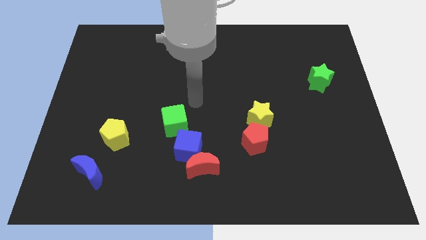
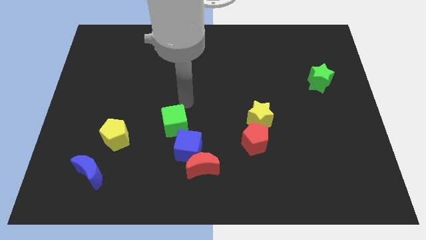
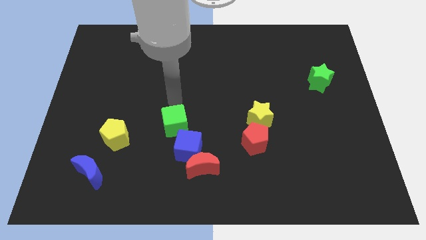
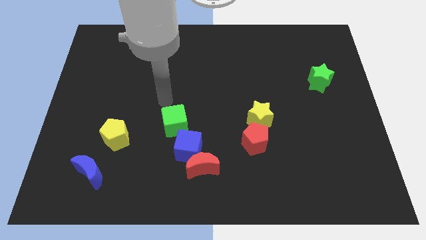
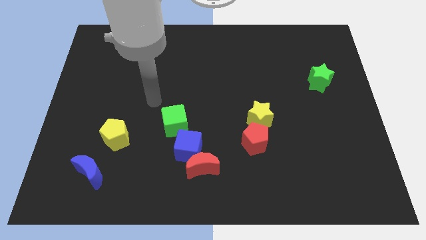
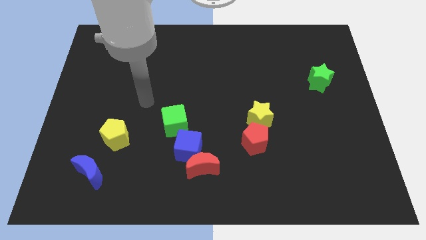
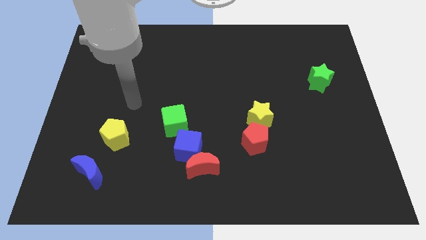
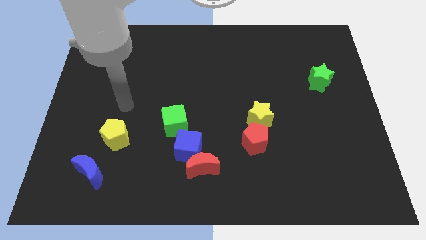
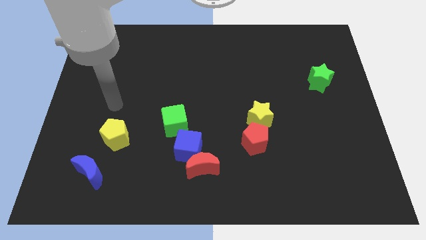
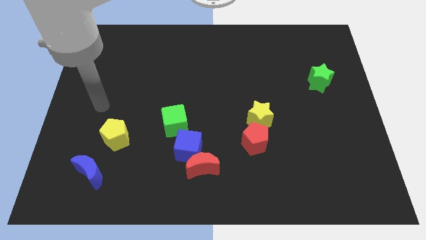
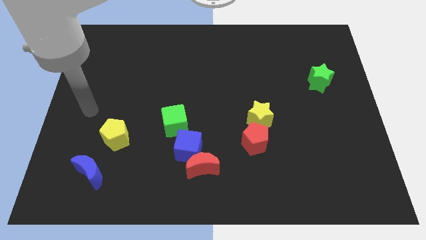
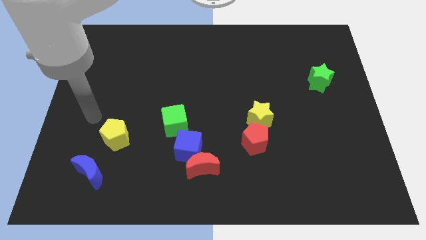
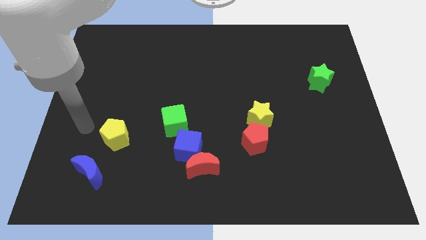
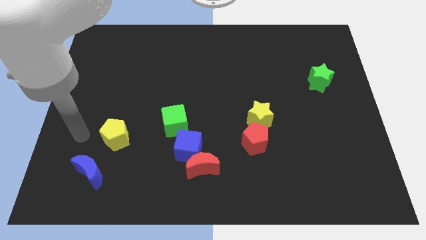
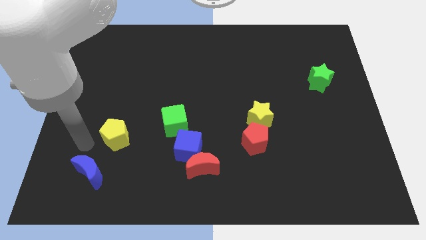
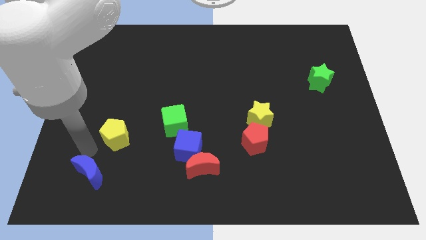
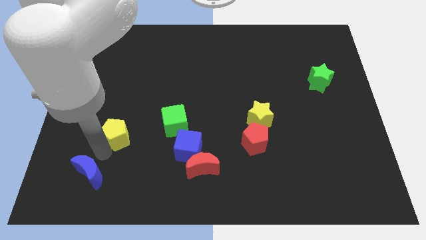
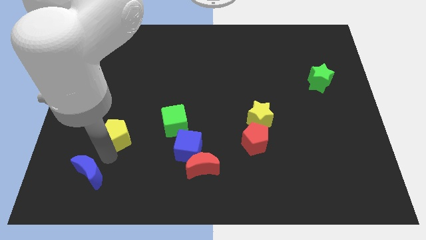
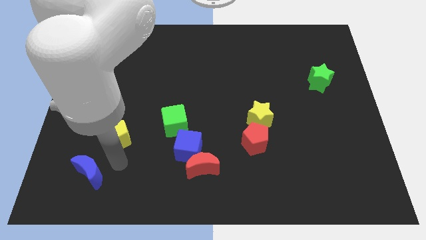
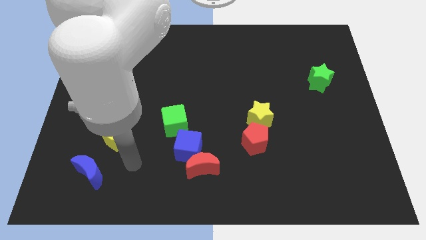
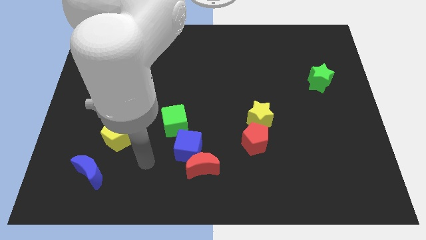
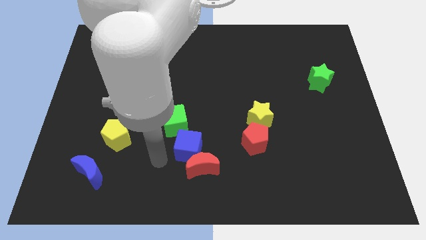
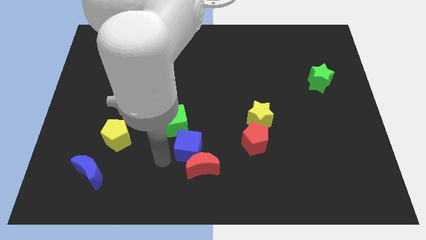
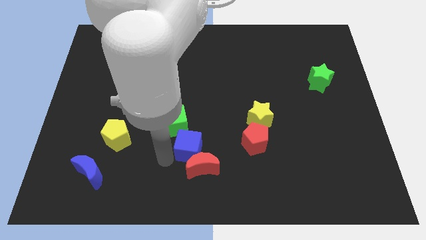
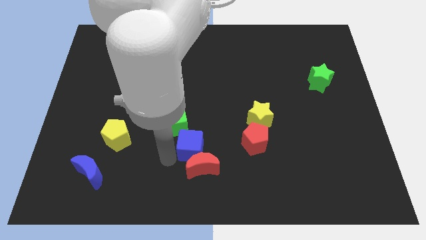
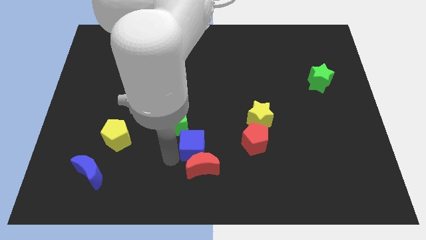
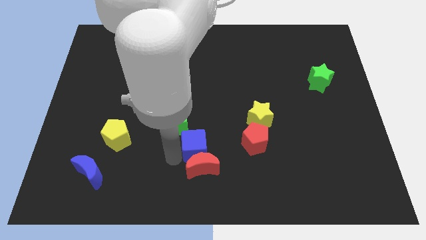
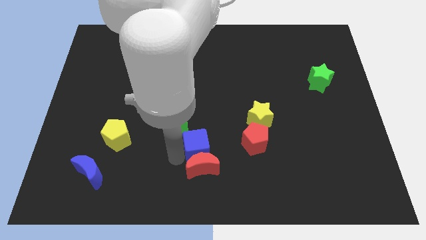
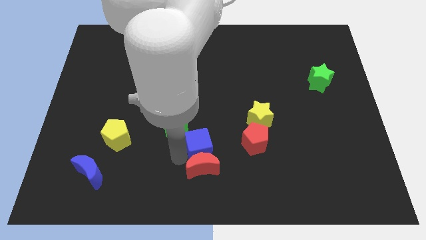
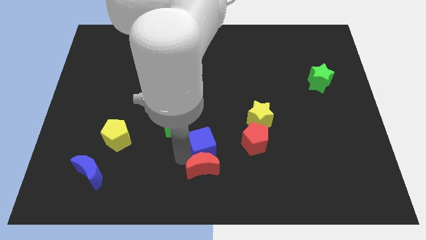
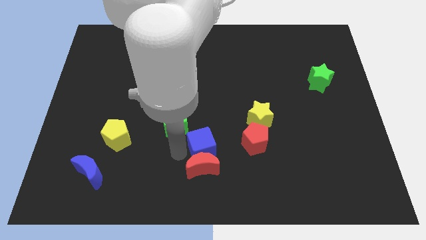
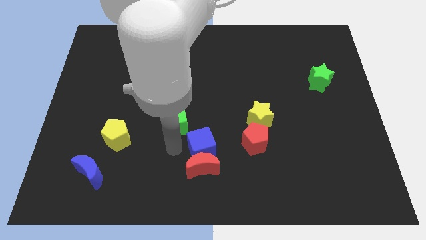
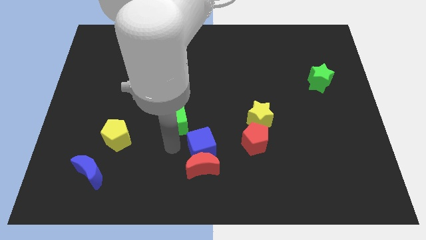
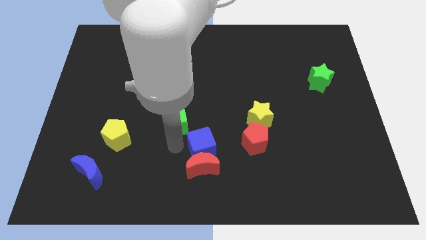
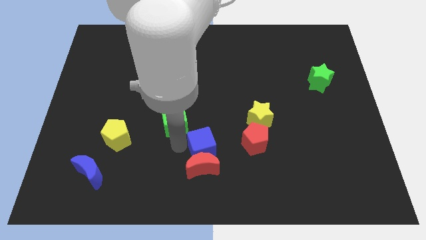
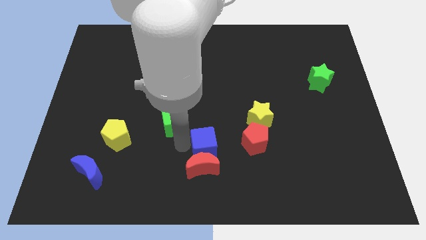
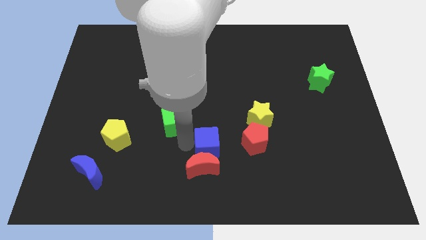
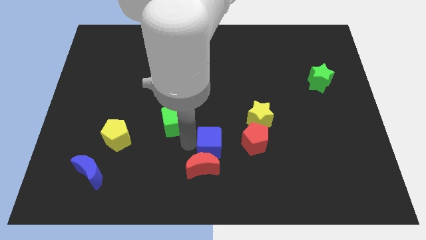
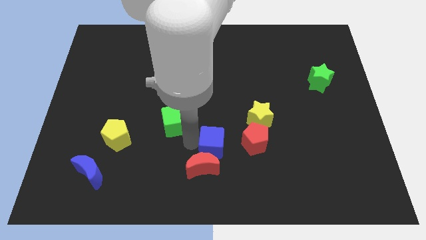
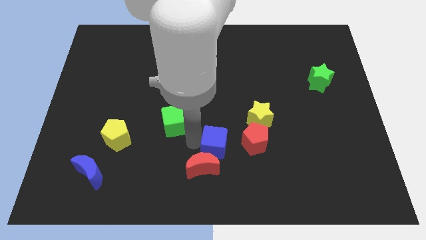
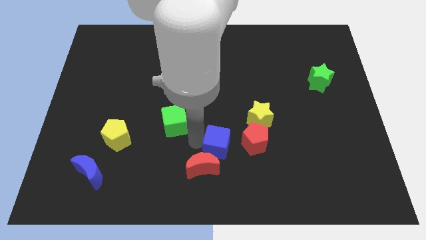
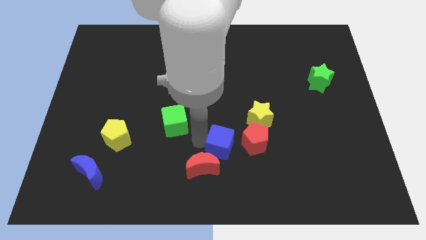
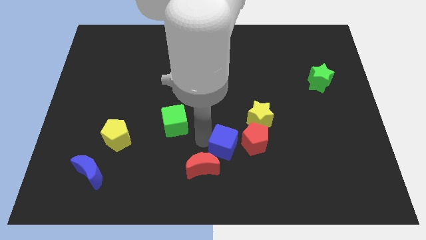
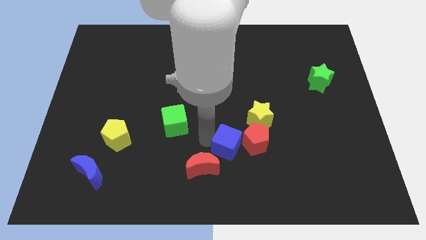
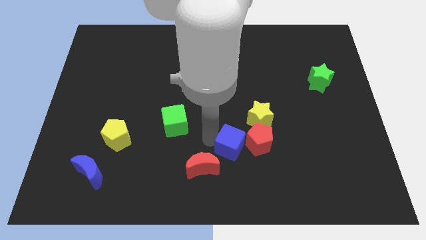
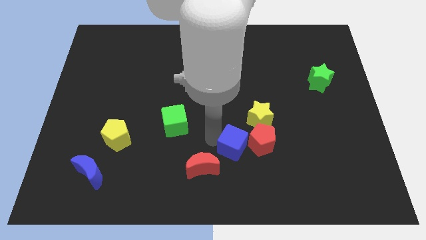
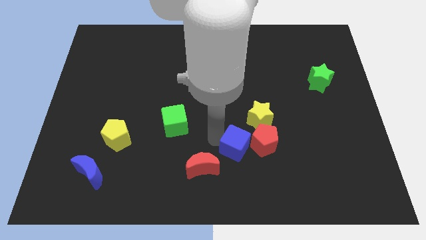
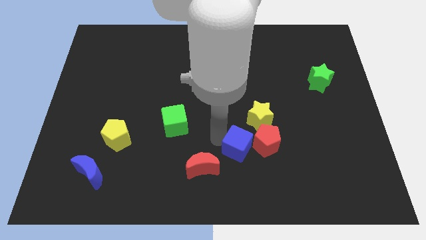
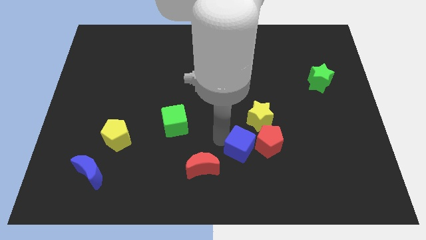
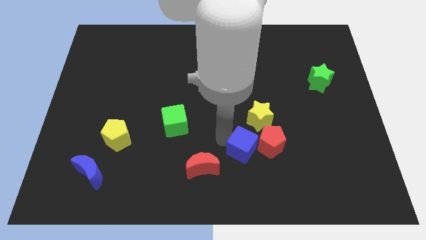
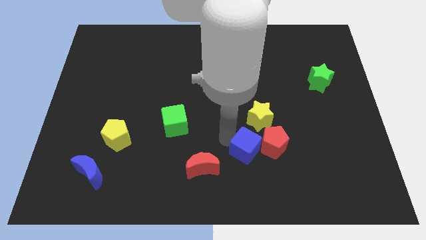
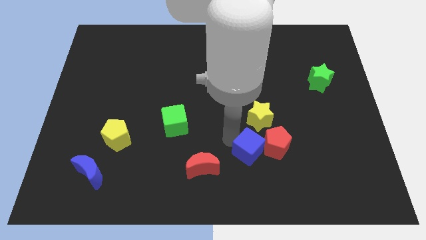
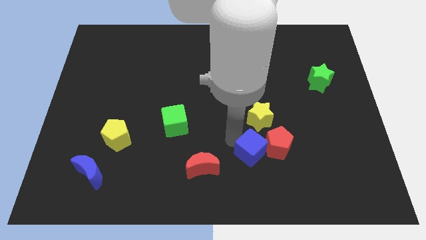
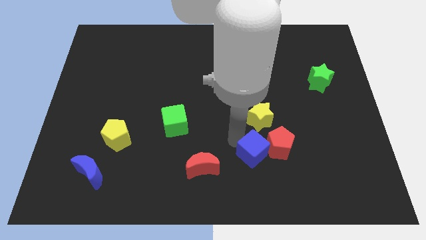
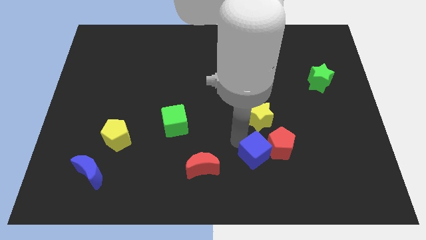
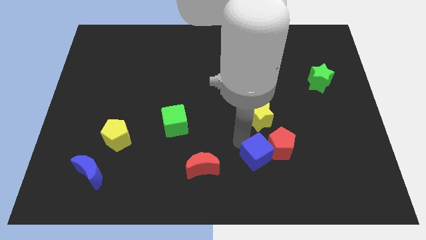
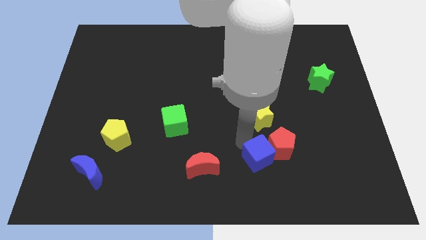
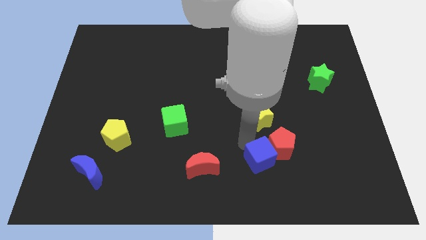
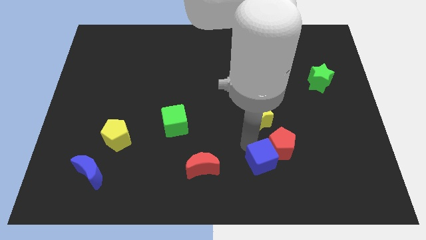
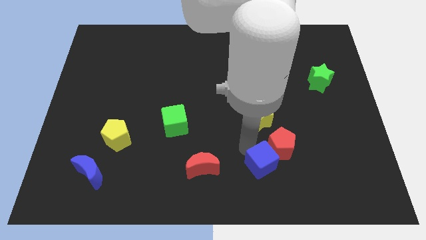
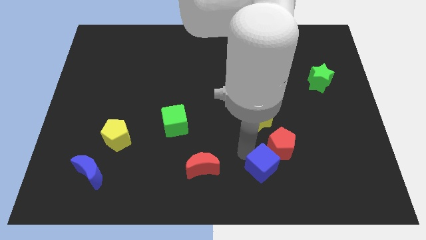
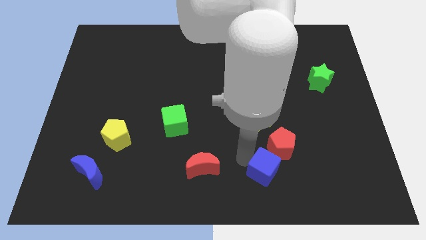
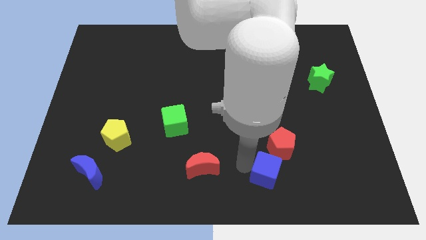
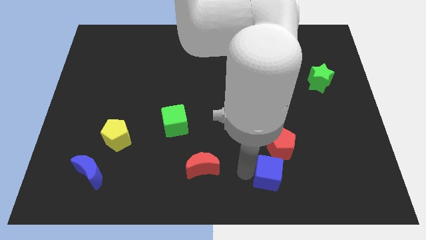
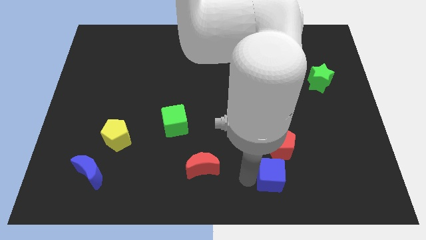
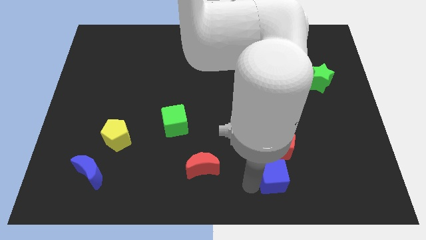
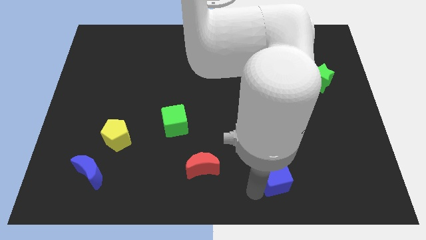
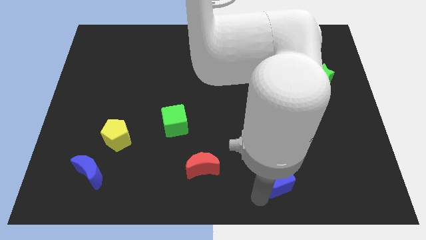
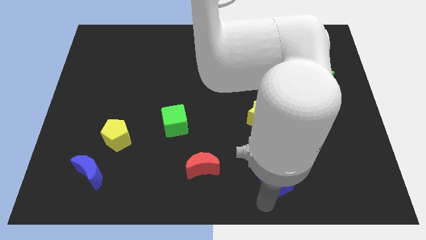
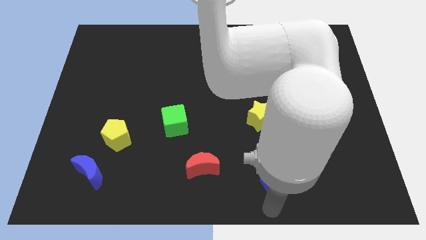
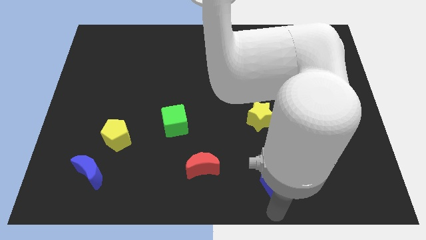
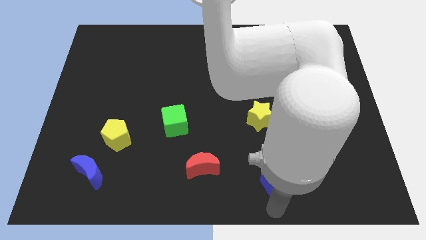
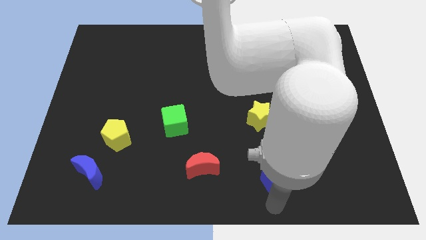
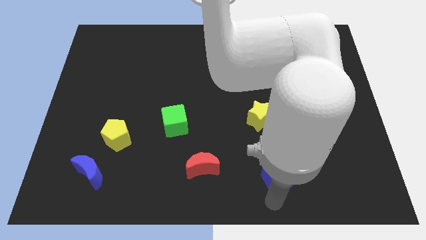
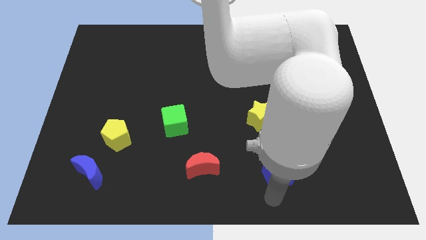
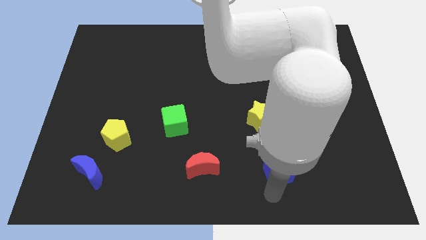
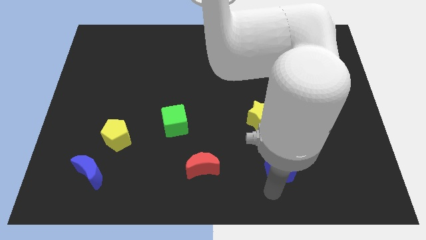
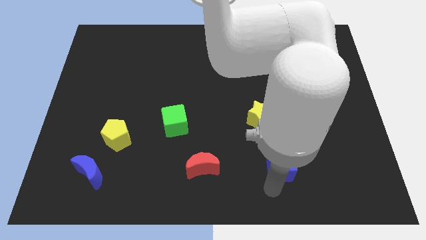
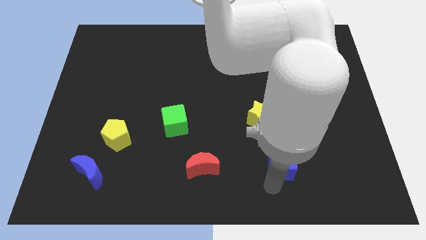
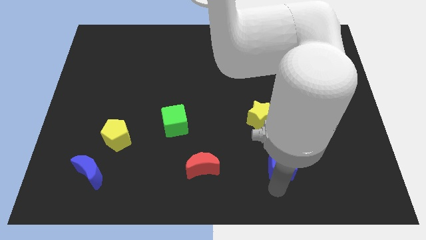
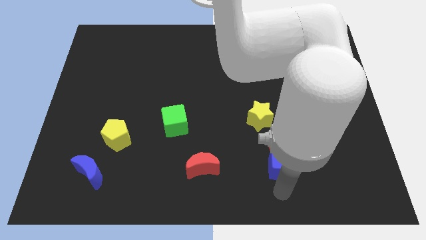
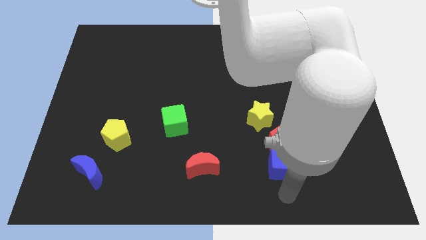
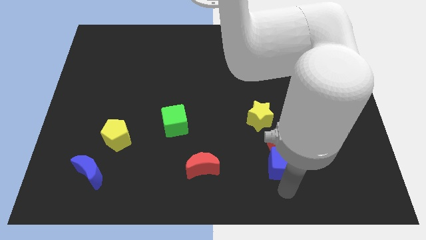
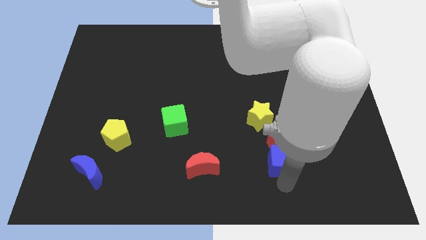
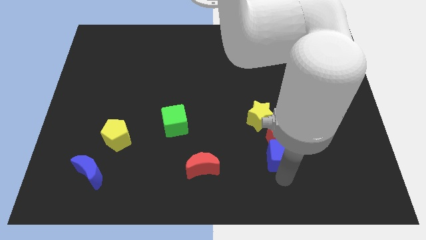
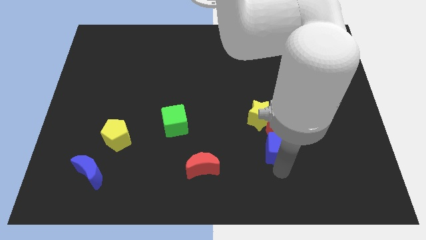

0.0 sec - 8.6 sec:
push the blue cube to the bottom right of the yellow star
